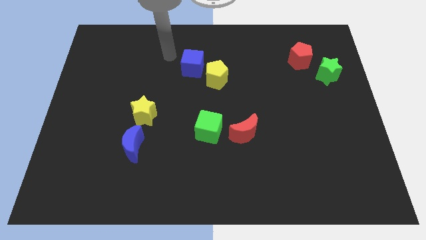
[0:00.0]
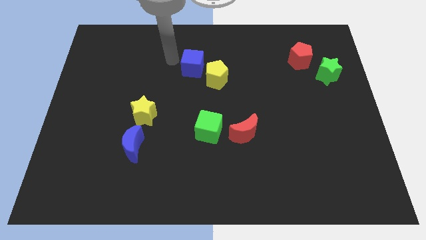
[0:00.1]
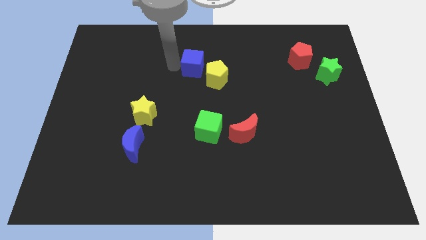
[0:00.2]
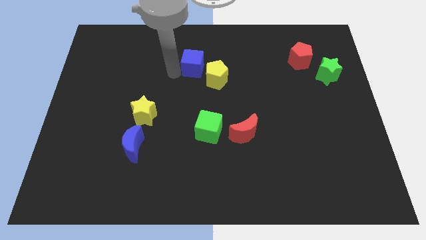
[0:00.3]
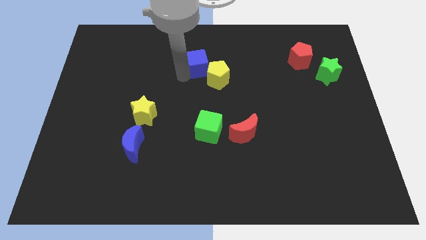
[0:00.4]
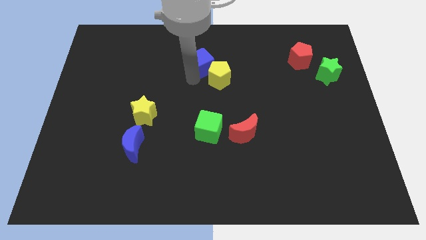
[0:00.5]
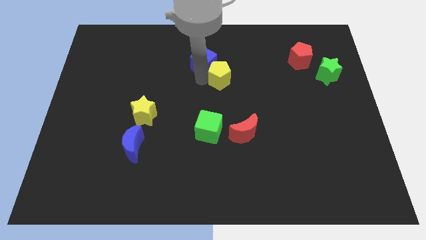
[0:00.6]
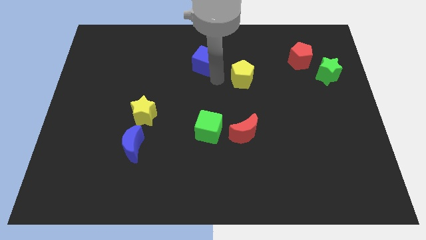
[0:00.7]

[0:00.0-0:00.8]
separate the blue cube from the yellow pentagon

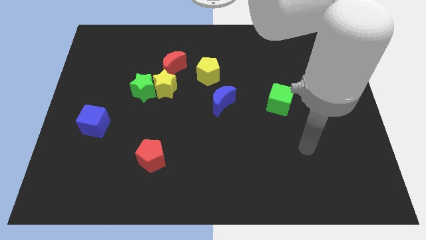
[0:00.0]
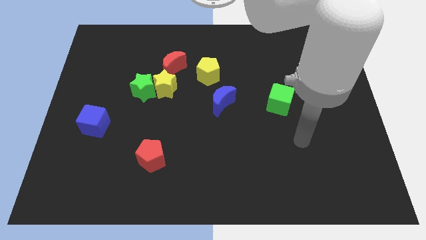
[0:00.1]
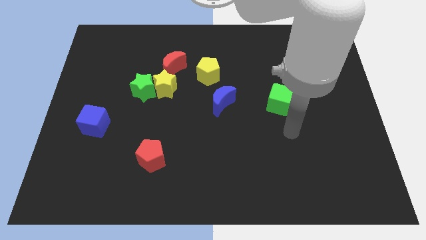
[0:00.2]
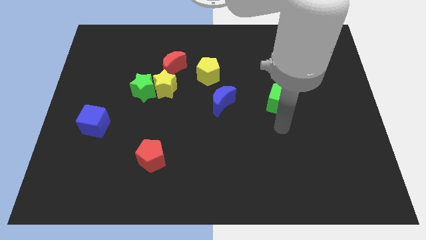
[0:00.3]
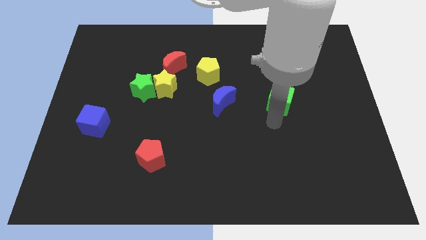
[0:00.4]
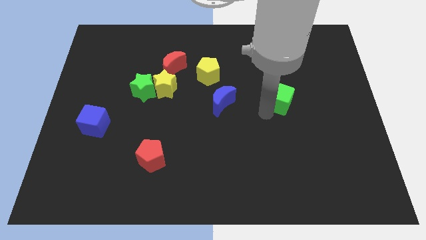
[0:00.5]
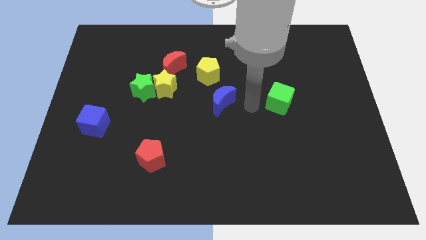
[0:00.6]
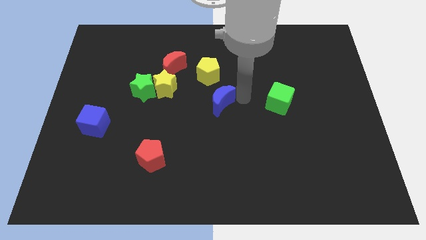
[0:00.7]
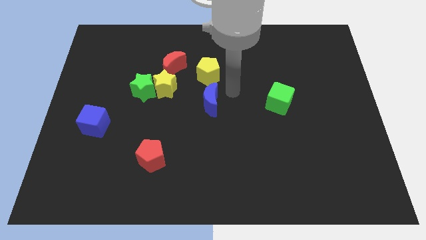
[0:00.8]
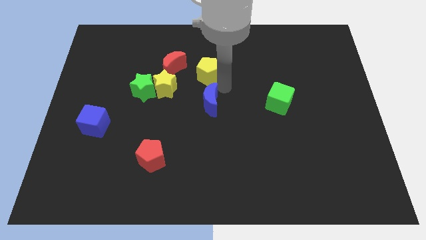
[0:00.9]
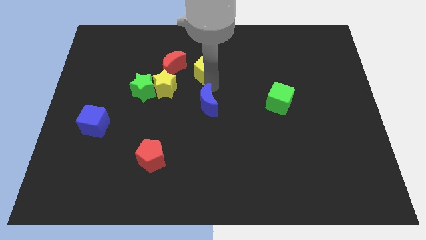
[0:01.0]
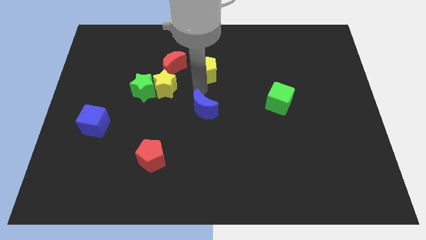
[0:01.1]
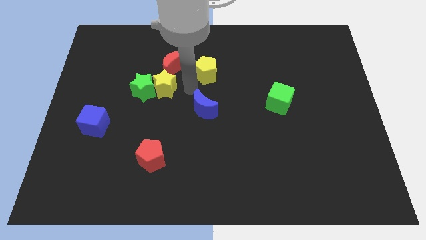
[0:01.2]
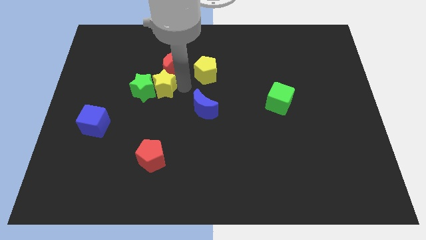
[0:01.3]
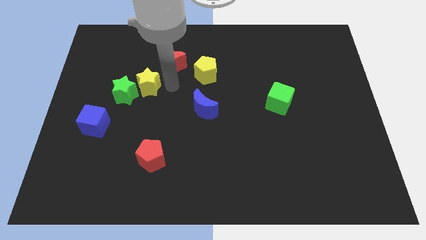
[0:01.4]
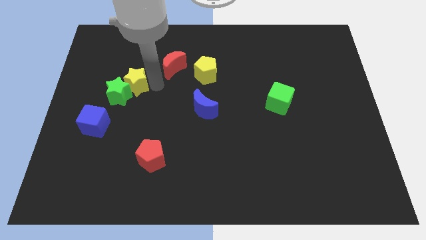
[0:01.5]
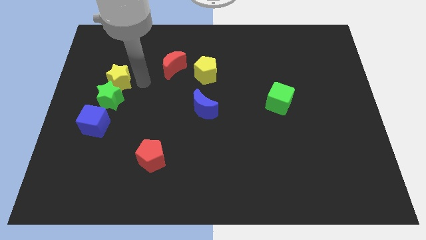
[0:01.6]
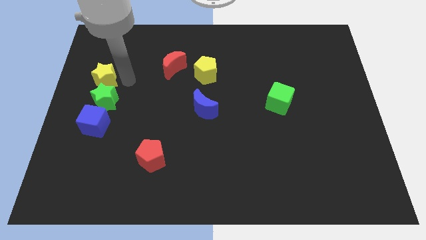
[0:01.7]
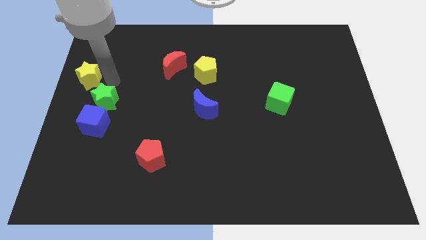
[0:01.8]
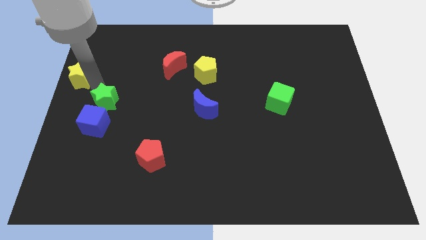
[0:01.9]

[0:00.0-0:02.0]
move the green star away from the yellow star

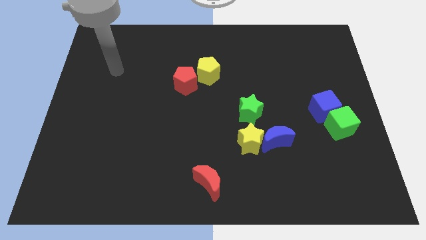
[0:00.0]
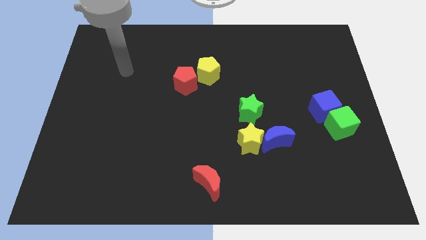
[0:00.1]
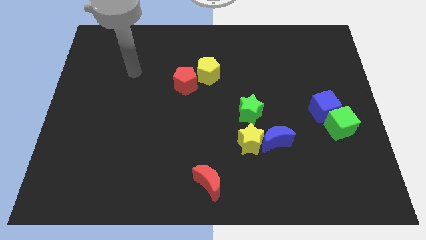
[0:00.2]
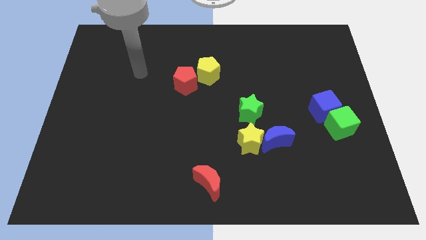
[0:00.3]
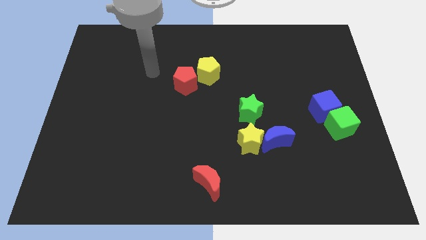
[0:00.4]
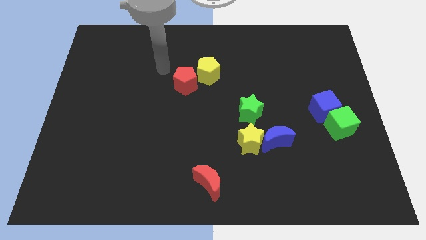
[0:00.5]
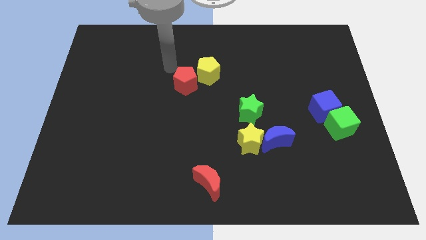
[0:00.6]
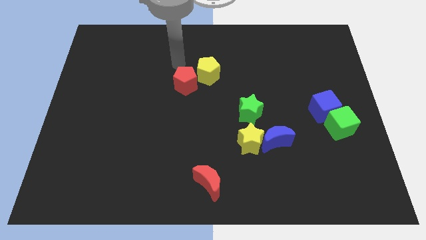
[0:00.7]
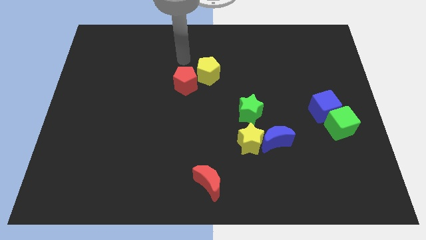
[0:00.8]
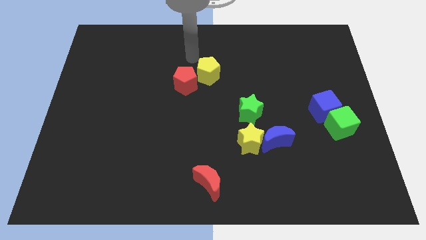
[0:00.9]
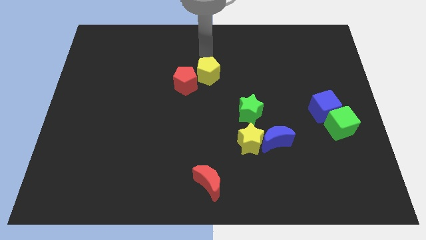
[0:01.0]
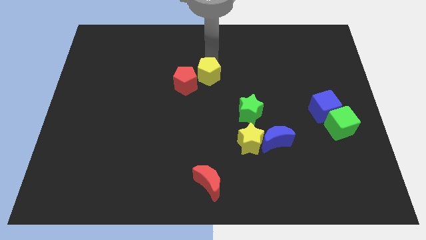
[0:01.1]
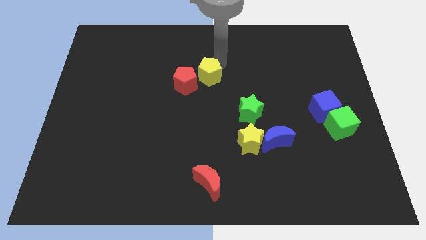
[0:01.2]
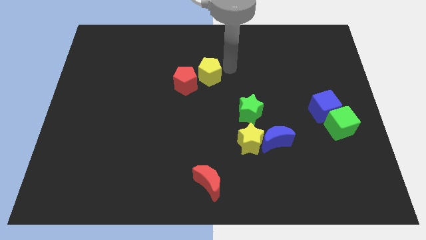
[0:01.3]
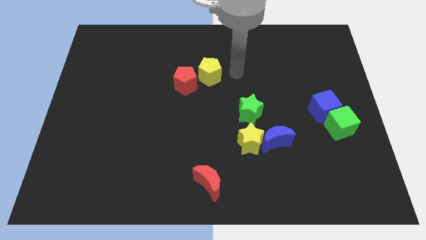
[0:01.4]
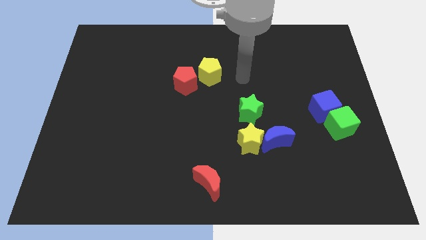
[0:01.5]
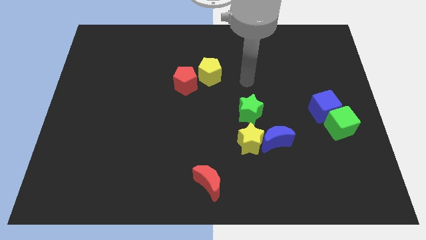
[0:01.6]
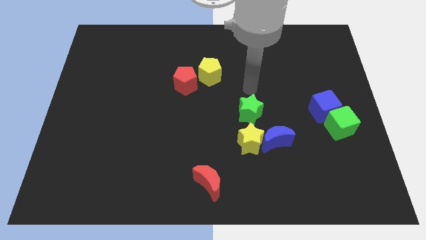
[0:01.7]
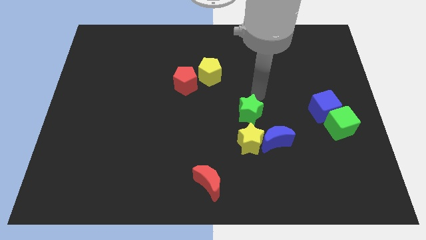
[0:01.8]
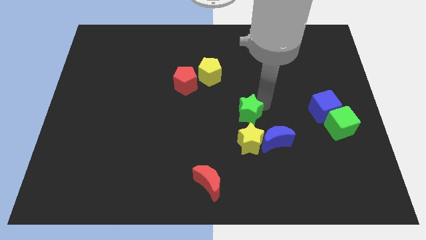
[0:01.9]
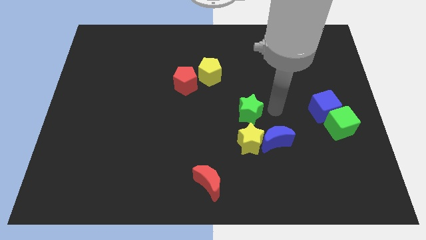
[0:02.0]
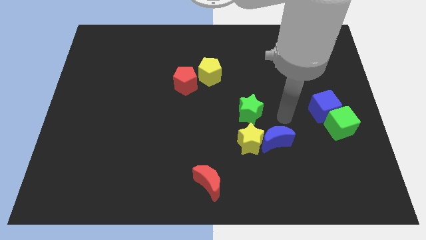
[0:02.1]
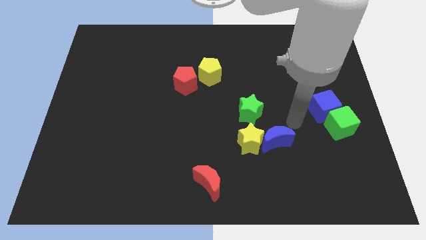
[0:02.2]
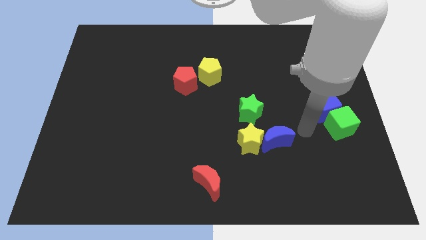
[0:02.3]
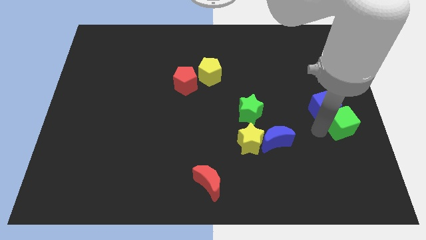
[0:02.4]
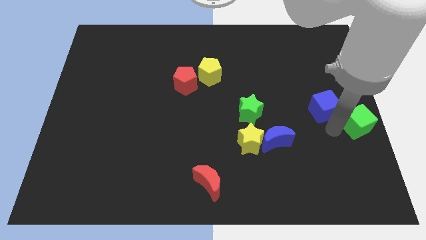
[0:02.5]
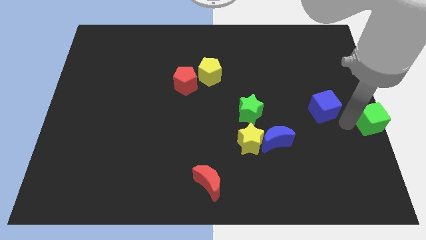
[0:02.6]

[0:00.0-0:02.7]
separate the blue cube from the green cube

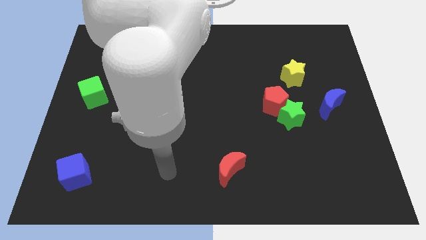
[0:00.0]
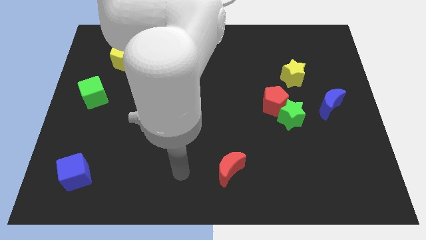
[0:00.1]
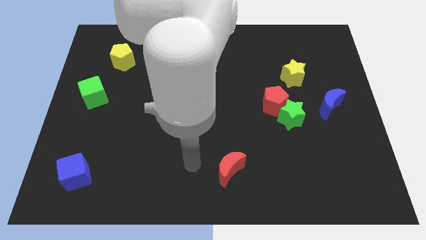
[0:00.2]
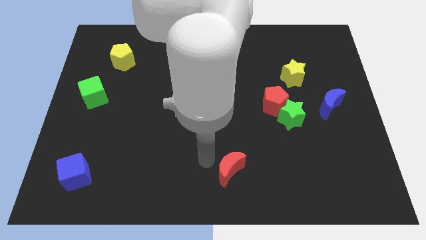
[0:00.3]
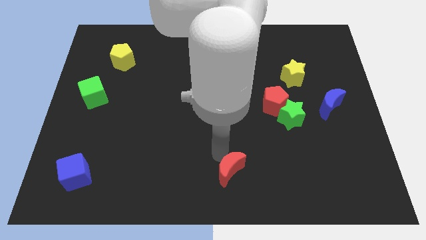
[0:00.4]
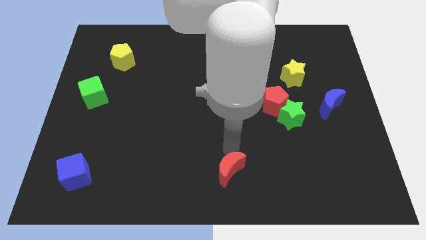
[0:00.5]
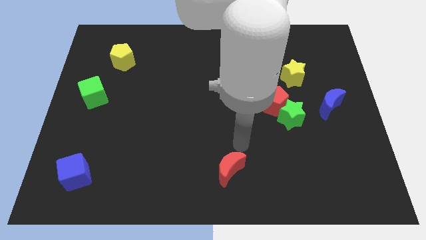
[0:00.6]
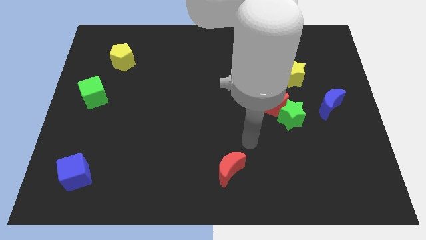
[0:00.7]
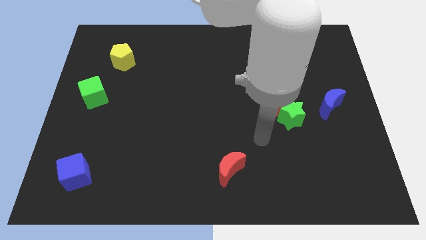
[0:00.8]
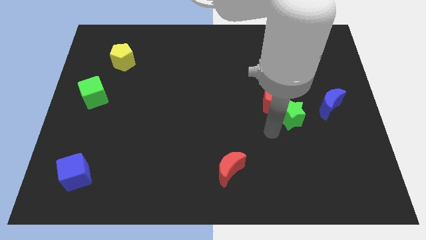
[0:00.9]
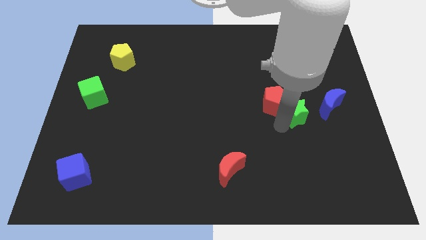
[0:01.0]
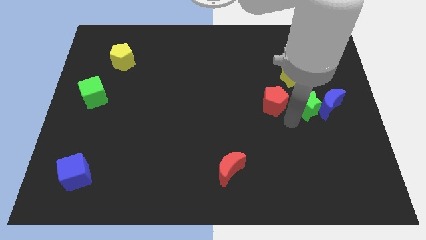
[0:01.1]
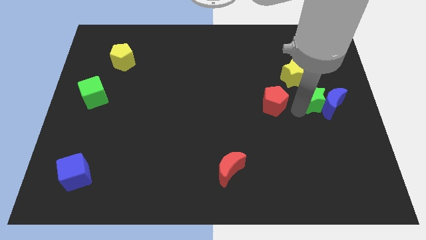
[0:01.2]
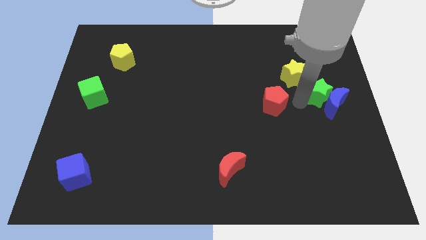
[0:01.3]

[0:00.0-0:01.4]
separate the red pentagon from the green star

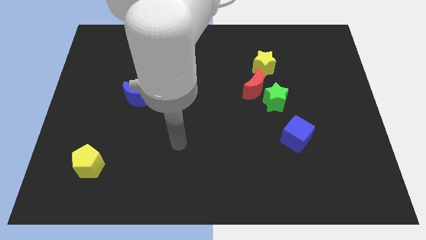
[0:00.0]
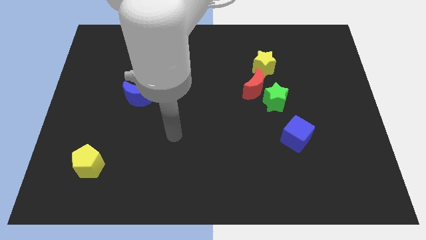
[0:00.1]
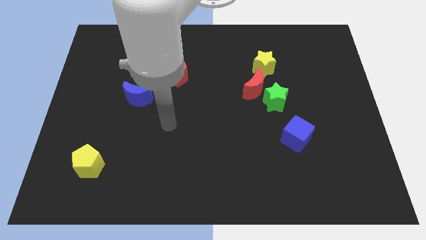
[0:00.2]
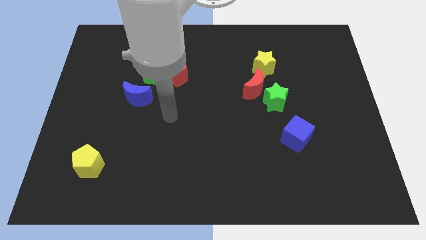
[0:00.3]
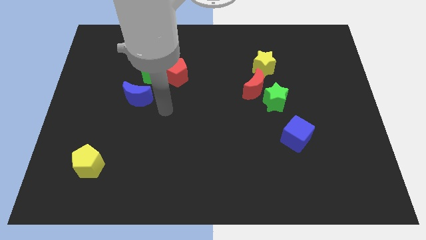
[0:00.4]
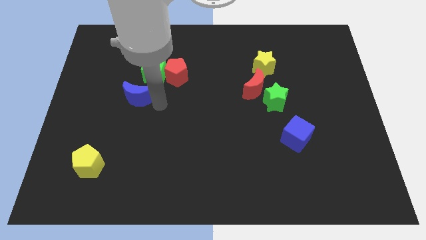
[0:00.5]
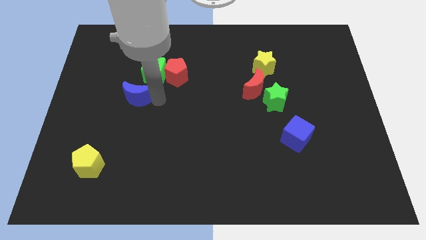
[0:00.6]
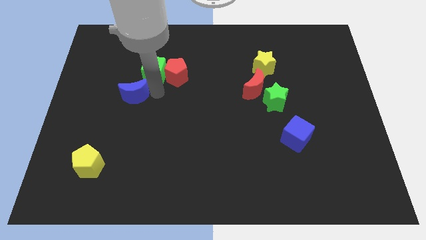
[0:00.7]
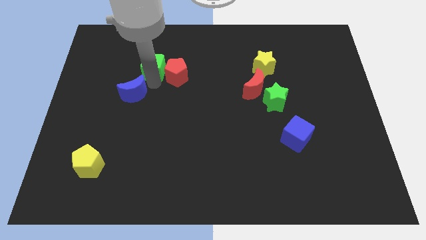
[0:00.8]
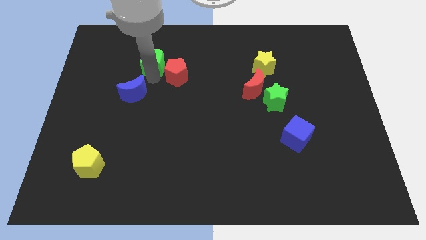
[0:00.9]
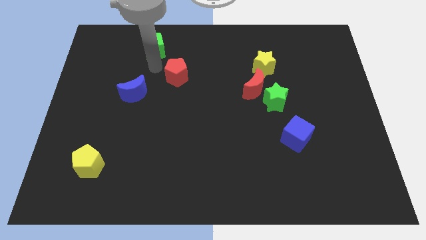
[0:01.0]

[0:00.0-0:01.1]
pull the red pentagon apart from the green cube

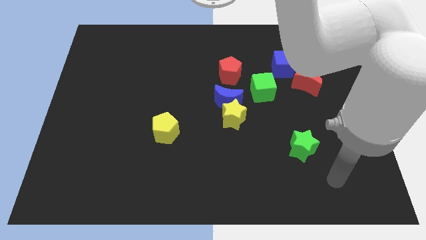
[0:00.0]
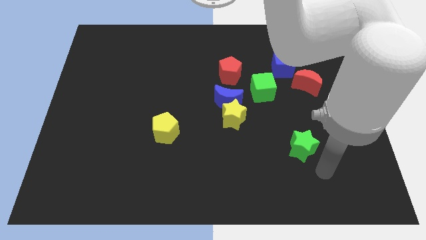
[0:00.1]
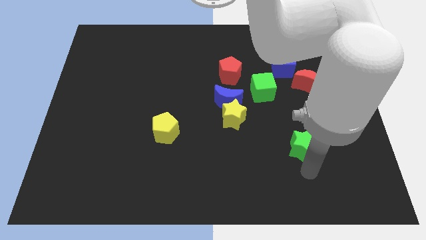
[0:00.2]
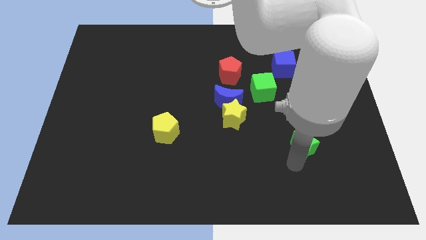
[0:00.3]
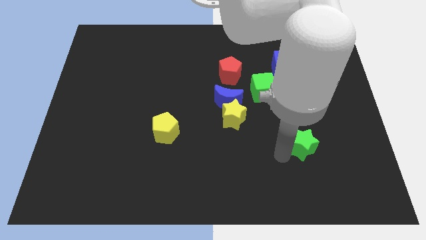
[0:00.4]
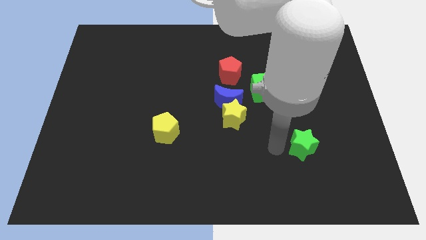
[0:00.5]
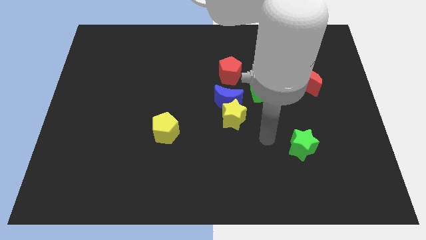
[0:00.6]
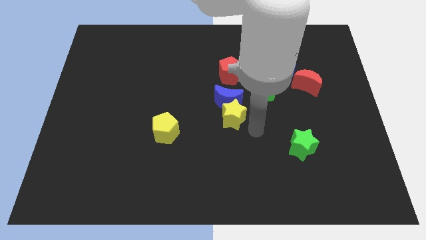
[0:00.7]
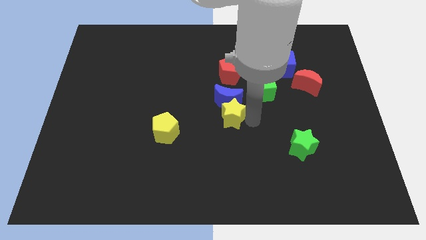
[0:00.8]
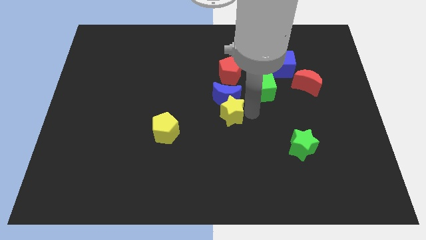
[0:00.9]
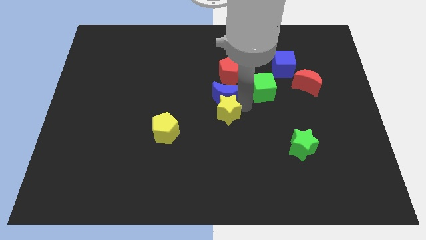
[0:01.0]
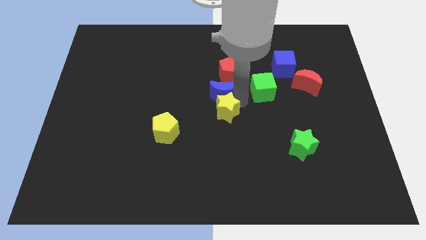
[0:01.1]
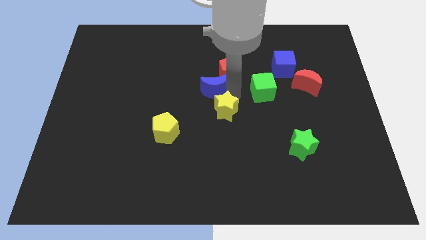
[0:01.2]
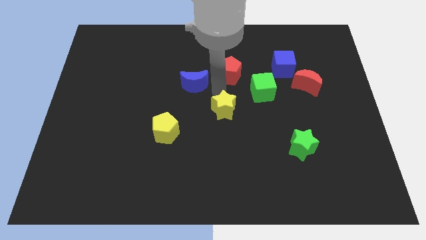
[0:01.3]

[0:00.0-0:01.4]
move the yellow star away from the blue moon
